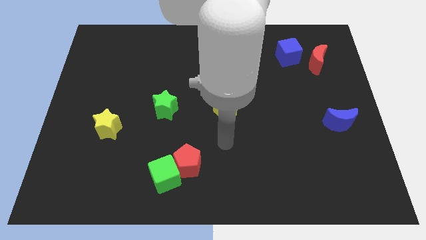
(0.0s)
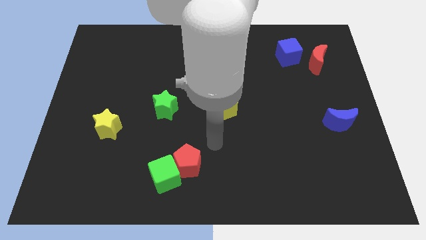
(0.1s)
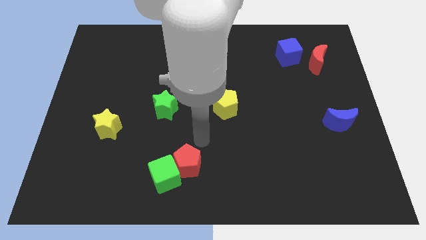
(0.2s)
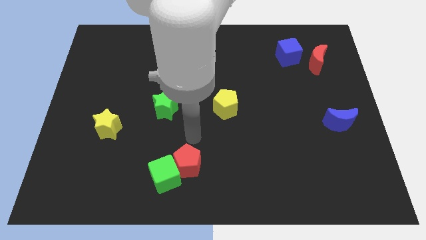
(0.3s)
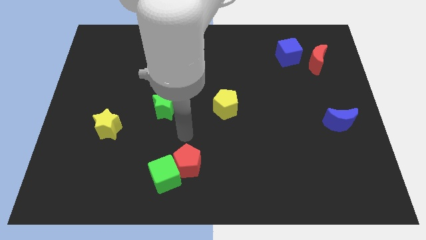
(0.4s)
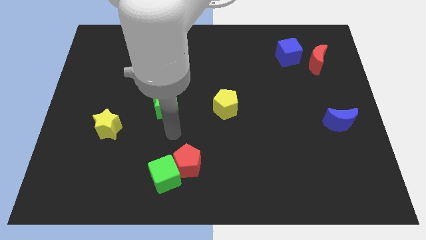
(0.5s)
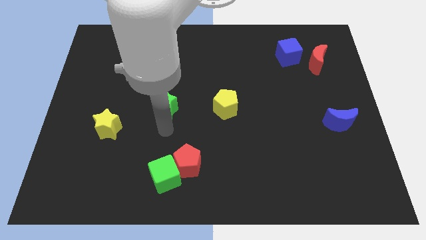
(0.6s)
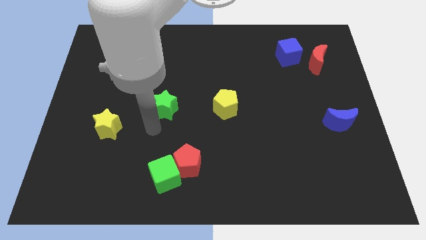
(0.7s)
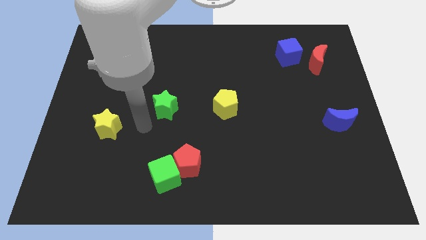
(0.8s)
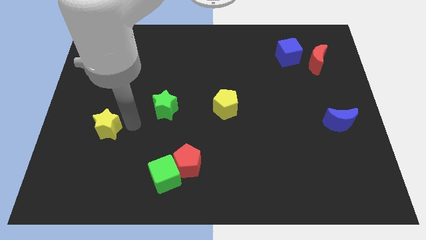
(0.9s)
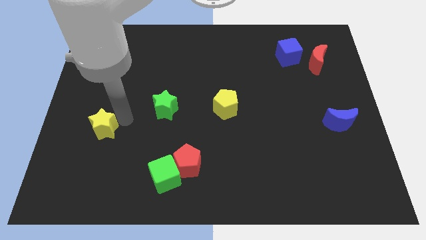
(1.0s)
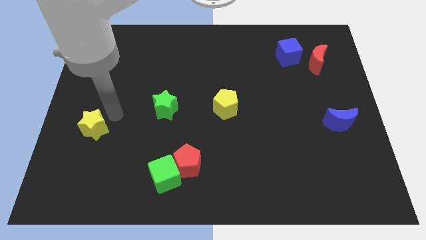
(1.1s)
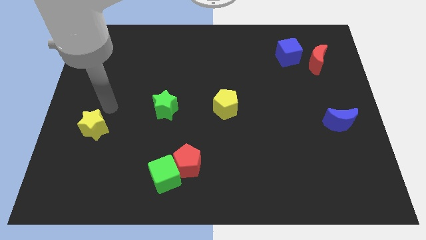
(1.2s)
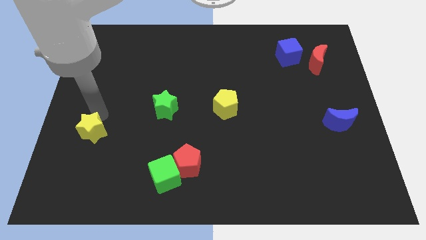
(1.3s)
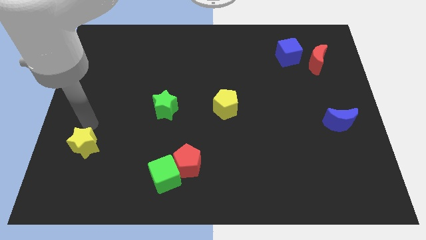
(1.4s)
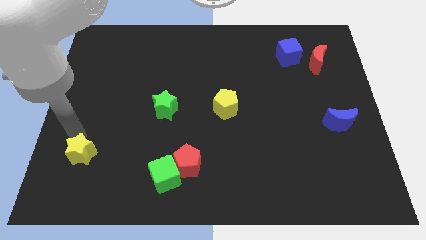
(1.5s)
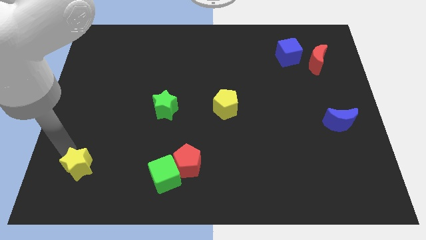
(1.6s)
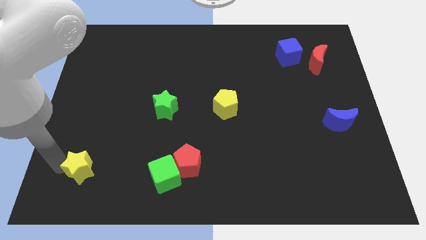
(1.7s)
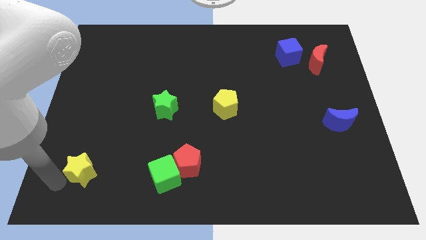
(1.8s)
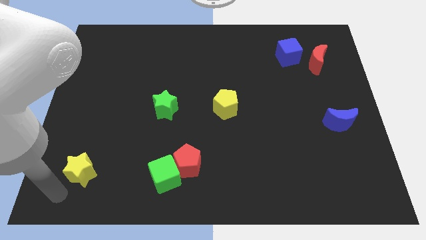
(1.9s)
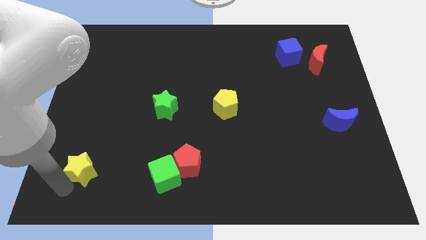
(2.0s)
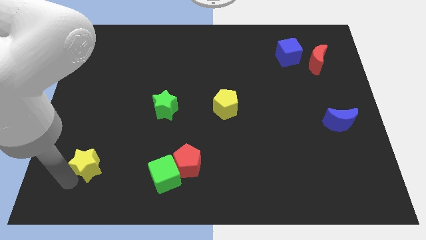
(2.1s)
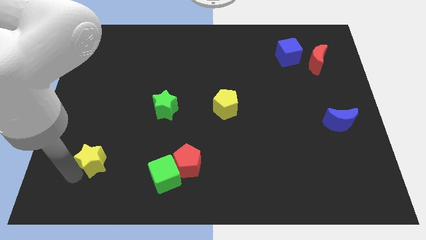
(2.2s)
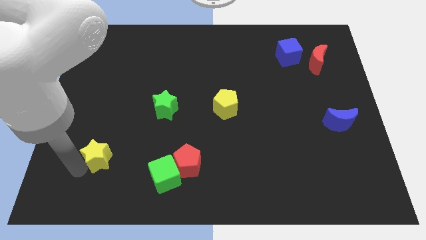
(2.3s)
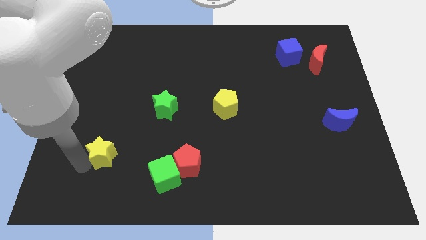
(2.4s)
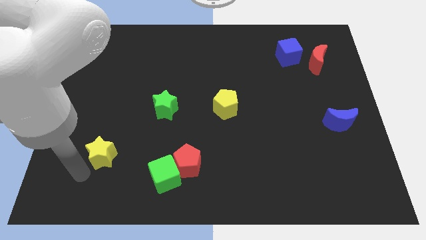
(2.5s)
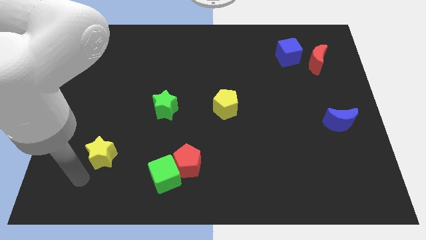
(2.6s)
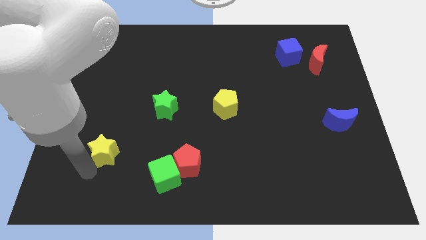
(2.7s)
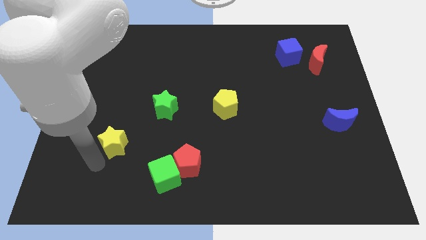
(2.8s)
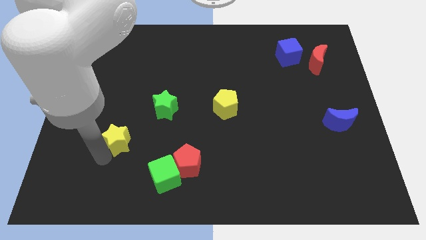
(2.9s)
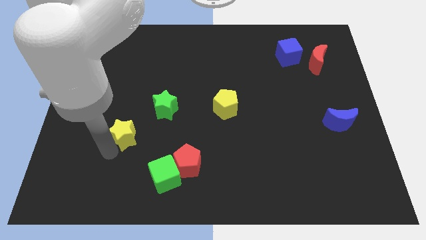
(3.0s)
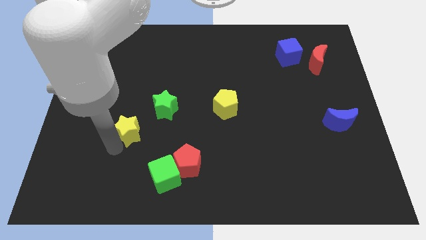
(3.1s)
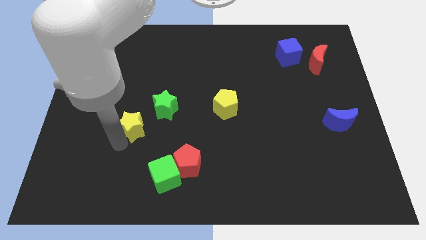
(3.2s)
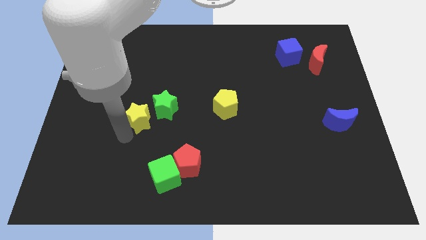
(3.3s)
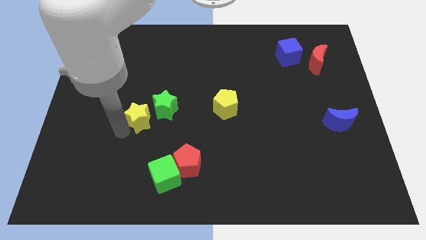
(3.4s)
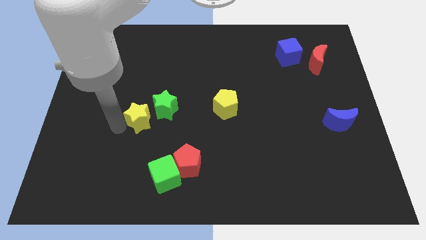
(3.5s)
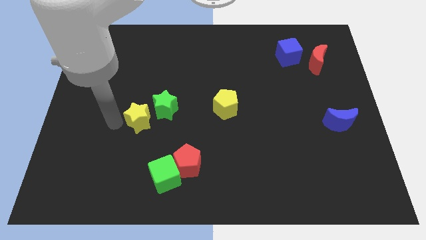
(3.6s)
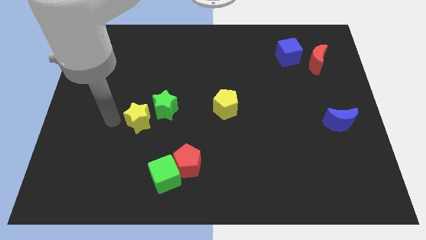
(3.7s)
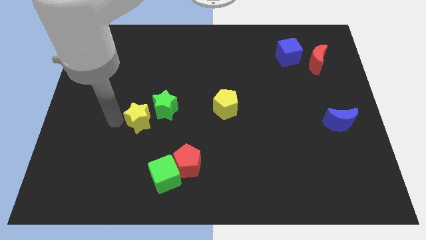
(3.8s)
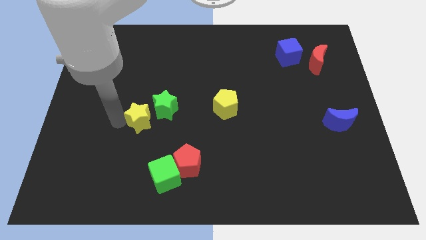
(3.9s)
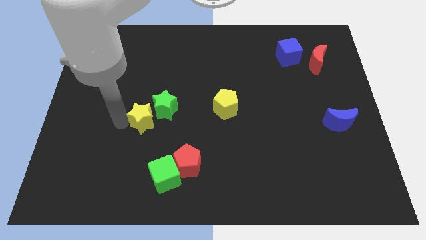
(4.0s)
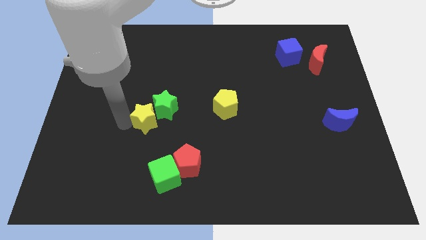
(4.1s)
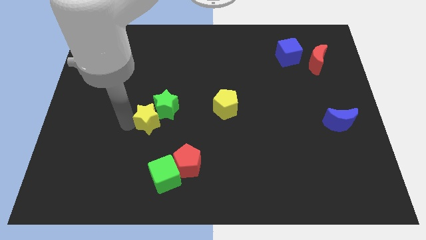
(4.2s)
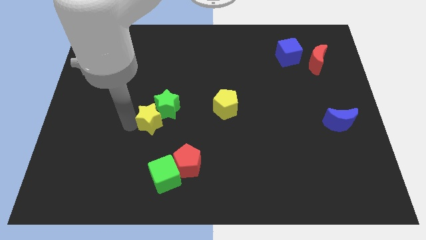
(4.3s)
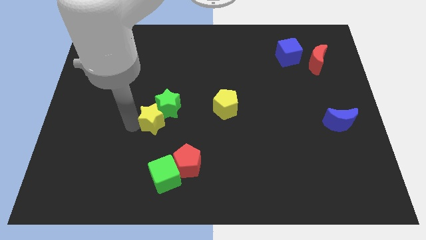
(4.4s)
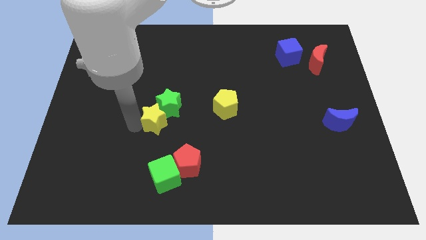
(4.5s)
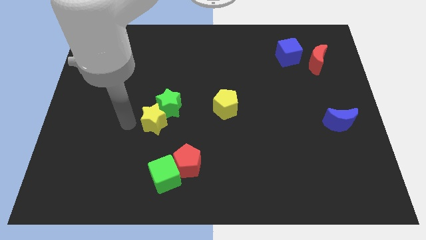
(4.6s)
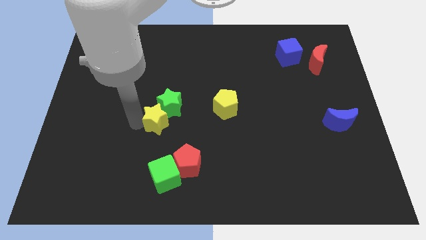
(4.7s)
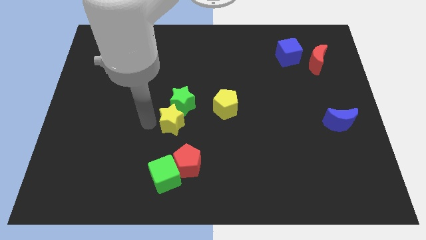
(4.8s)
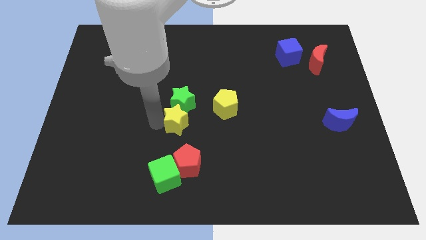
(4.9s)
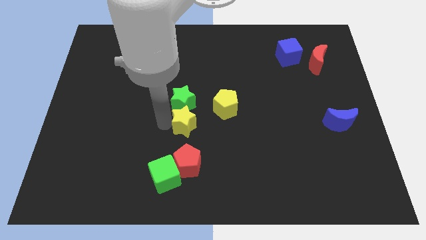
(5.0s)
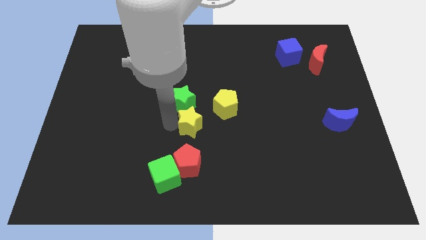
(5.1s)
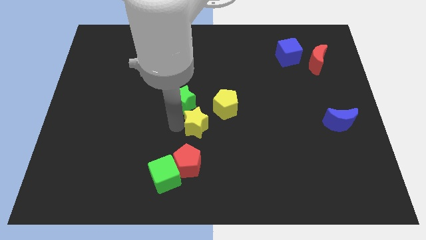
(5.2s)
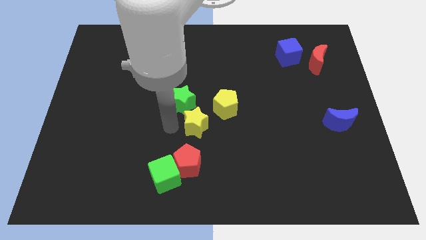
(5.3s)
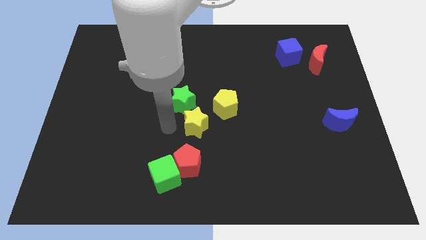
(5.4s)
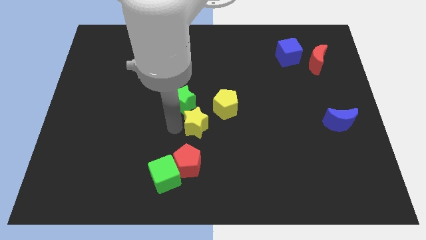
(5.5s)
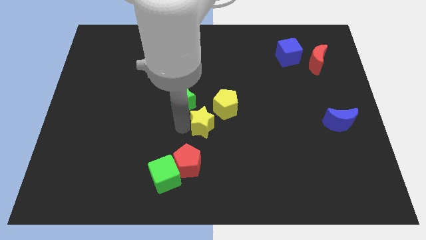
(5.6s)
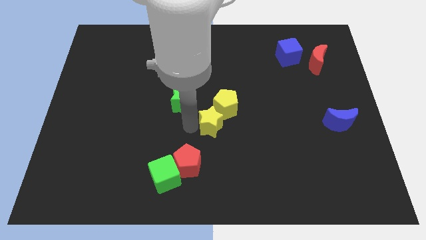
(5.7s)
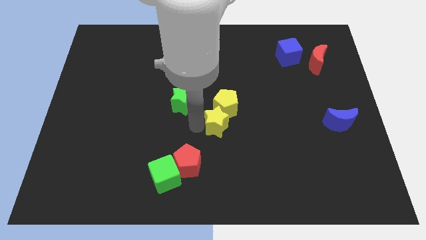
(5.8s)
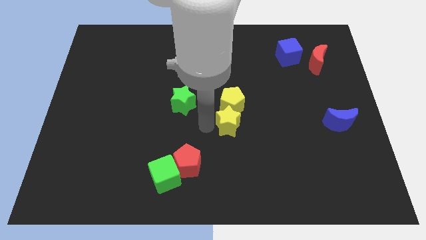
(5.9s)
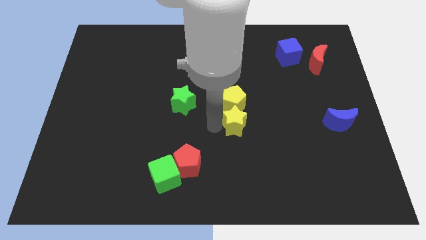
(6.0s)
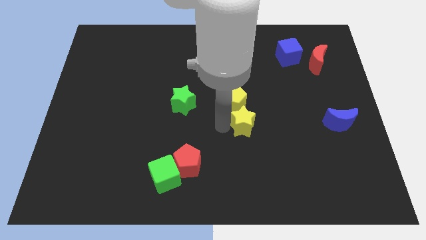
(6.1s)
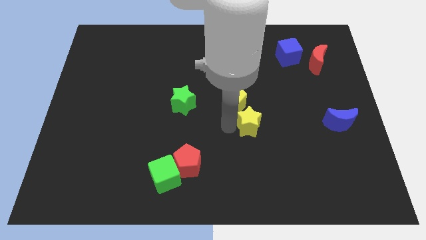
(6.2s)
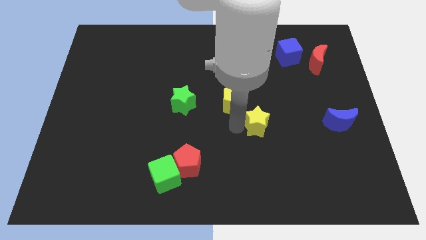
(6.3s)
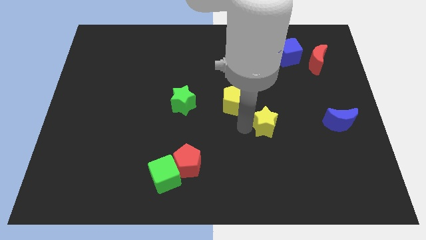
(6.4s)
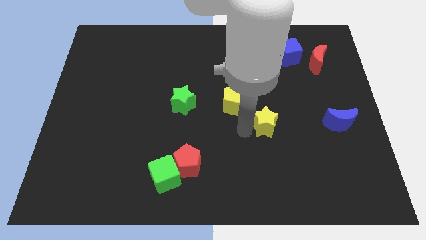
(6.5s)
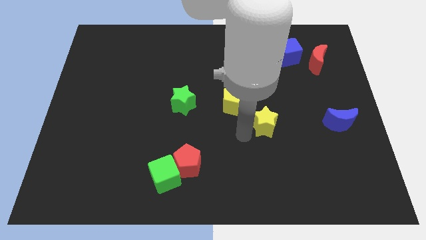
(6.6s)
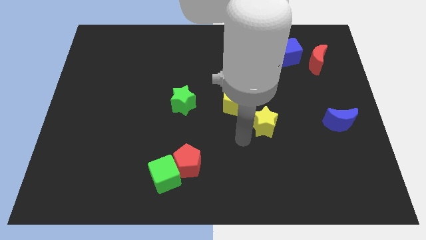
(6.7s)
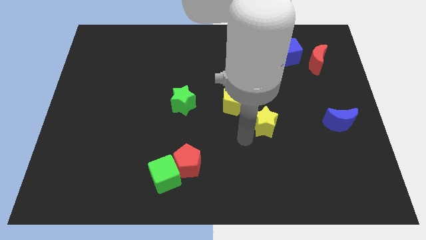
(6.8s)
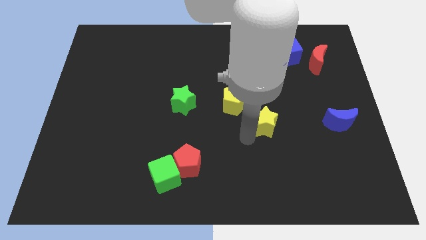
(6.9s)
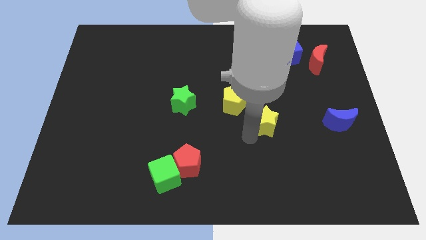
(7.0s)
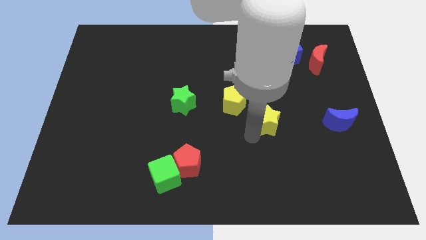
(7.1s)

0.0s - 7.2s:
move the yellow star left of the blue moon
